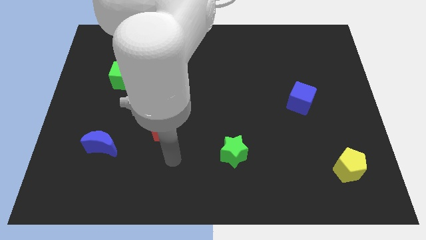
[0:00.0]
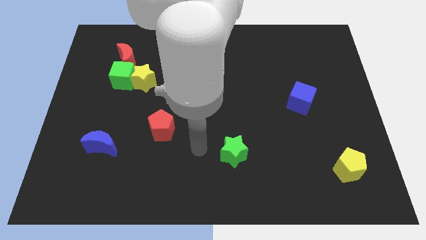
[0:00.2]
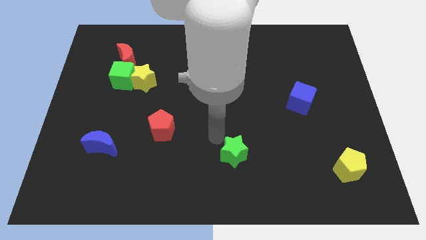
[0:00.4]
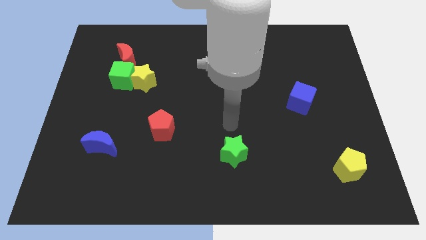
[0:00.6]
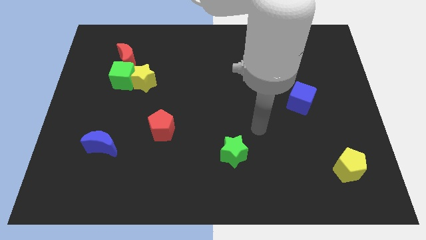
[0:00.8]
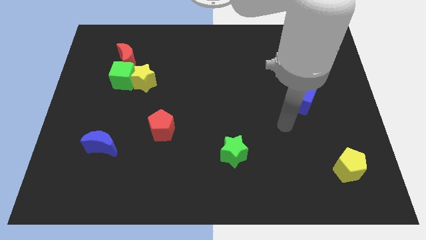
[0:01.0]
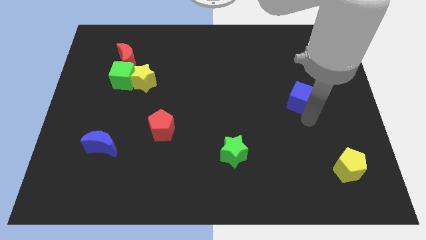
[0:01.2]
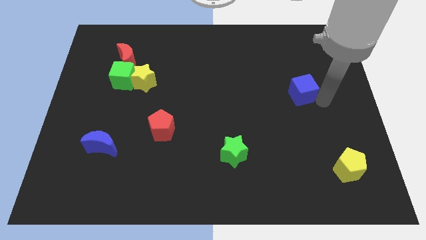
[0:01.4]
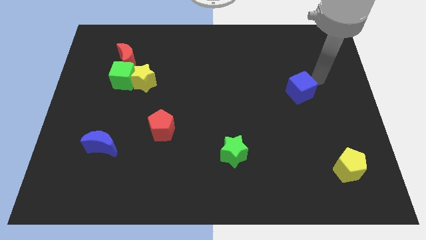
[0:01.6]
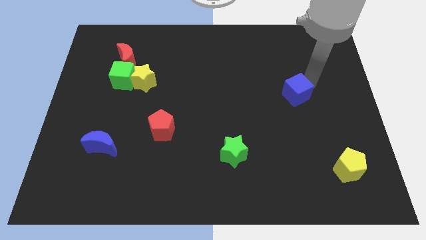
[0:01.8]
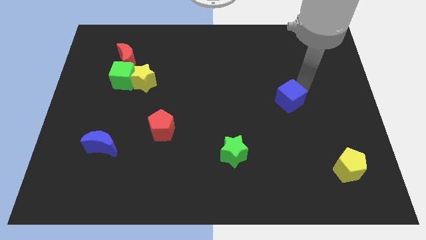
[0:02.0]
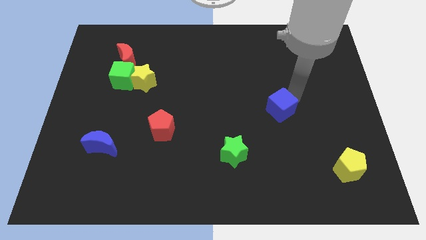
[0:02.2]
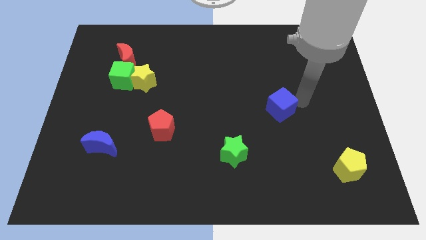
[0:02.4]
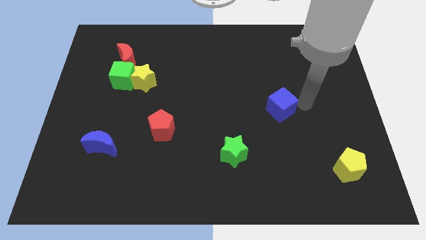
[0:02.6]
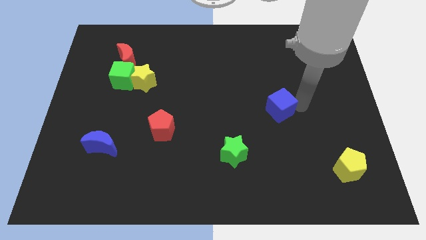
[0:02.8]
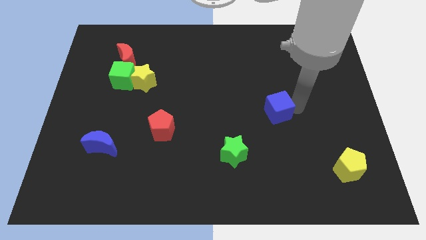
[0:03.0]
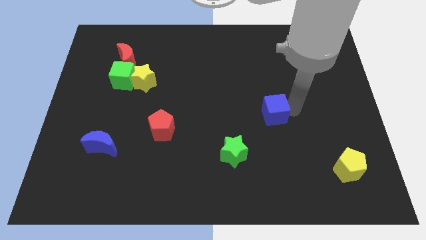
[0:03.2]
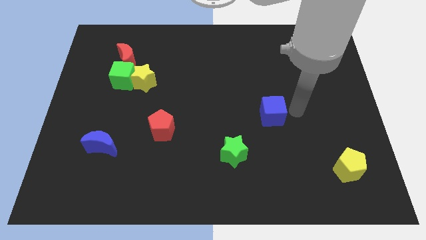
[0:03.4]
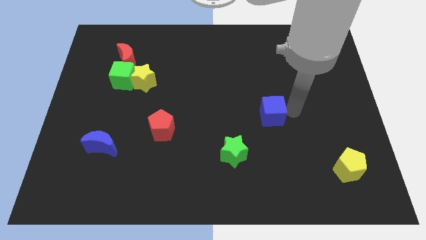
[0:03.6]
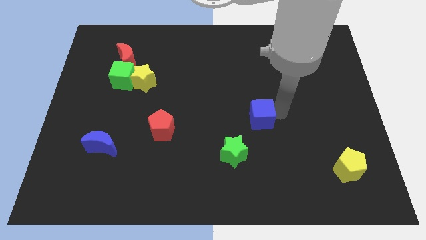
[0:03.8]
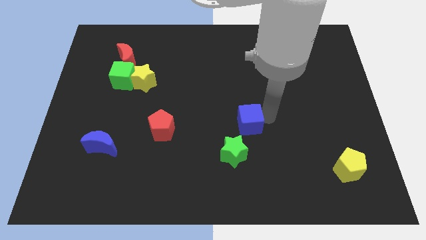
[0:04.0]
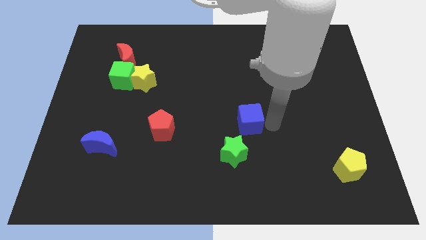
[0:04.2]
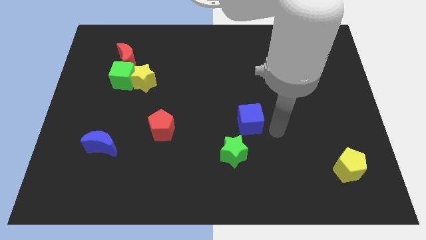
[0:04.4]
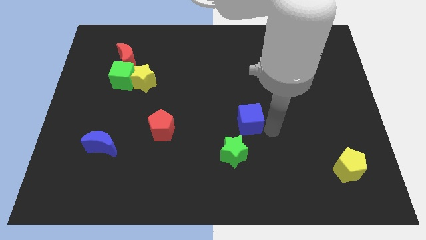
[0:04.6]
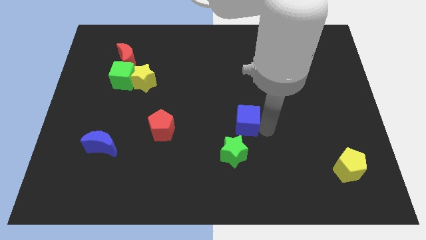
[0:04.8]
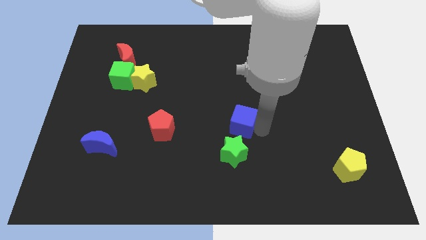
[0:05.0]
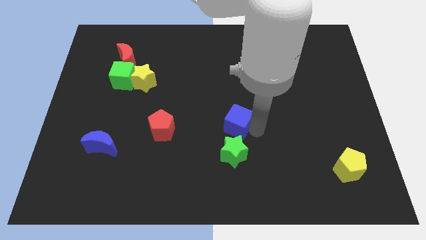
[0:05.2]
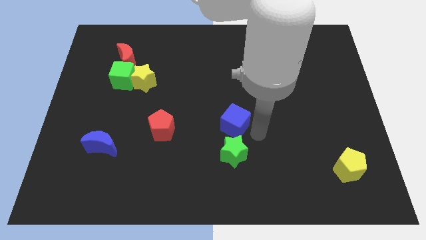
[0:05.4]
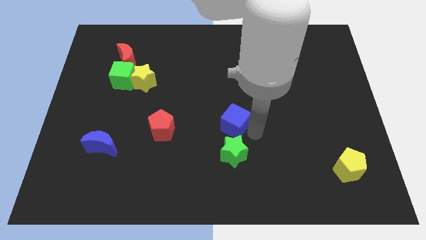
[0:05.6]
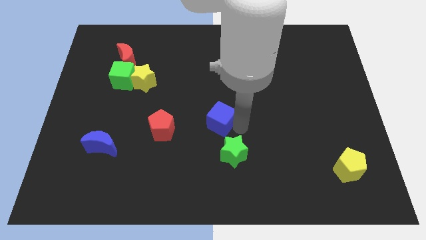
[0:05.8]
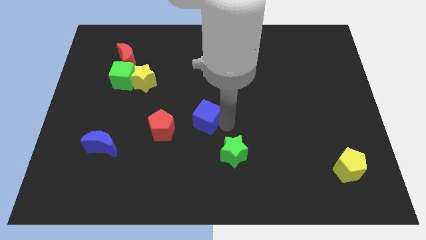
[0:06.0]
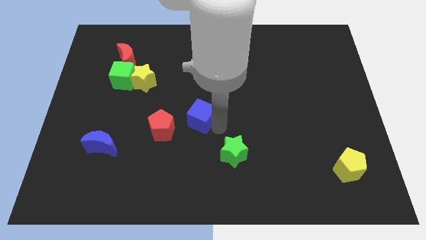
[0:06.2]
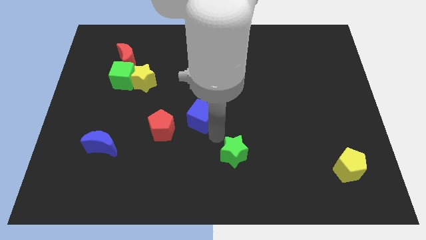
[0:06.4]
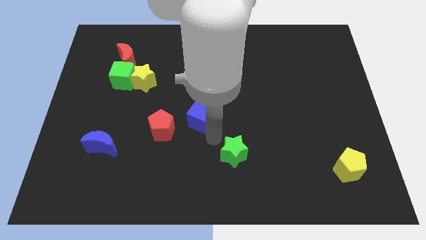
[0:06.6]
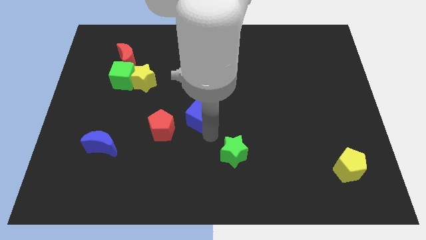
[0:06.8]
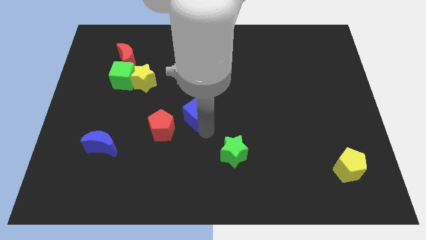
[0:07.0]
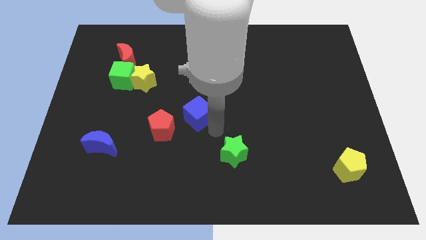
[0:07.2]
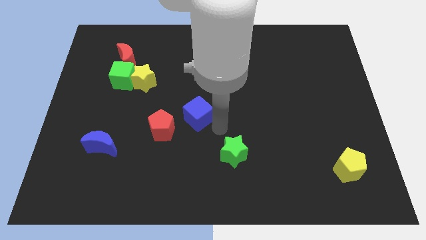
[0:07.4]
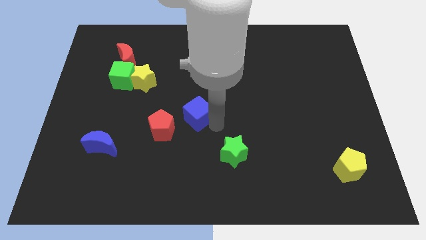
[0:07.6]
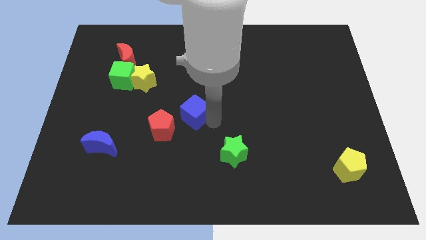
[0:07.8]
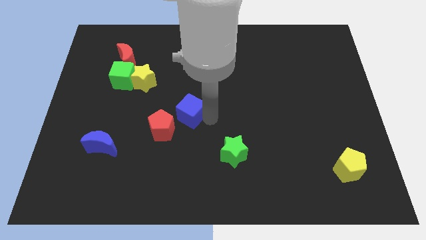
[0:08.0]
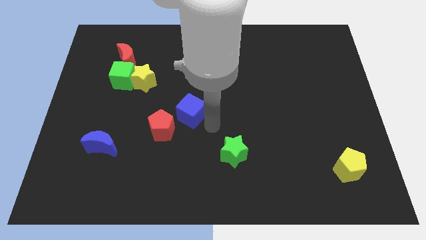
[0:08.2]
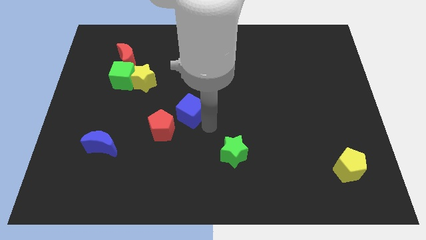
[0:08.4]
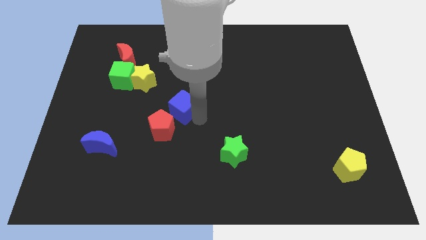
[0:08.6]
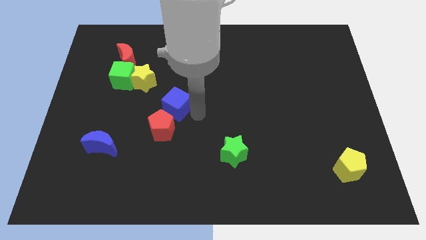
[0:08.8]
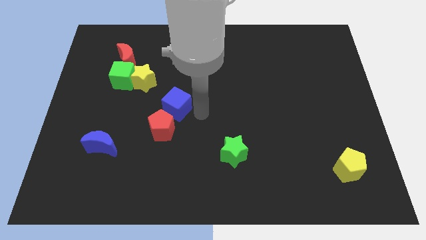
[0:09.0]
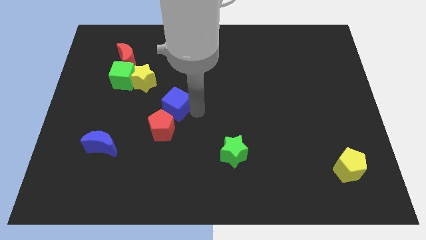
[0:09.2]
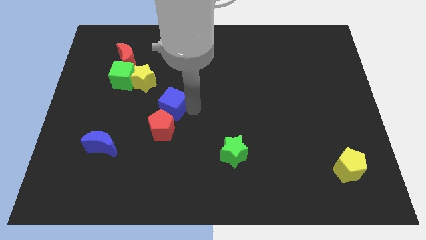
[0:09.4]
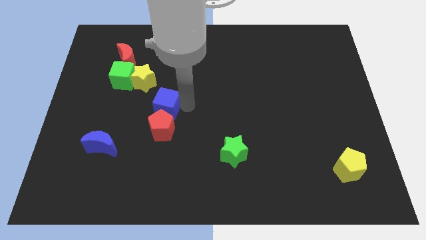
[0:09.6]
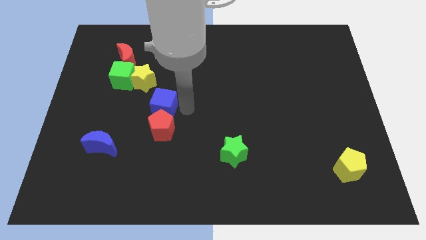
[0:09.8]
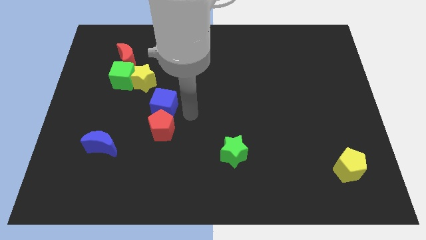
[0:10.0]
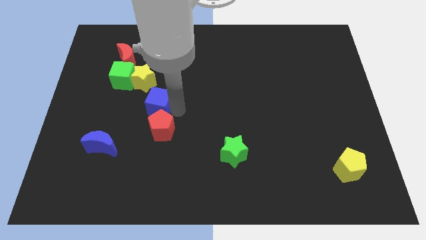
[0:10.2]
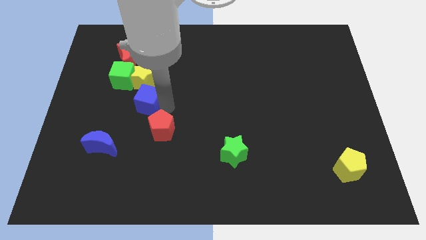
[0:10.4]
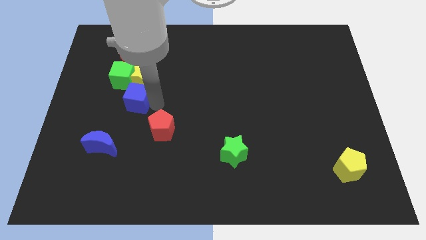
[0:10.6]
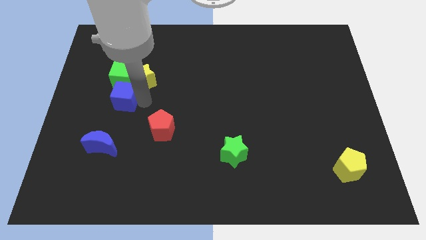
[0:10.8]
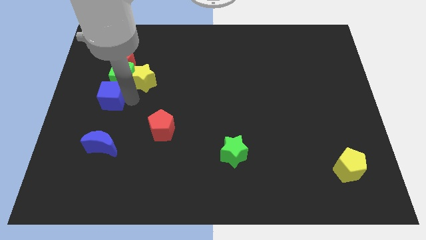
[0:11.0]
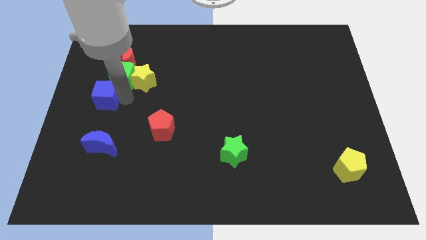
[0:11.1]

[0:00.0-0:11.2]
push the blue cube to the left side

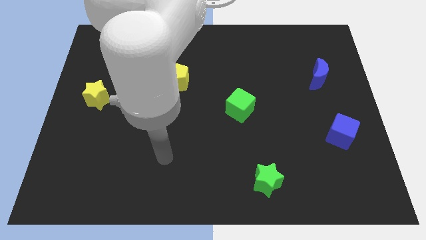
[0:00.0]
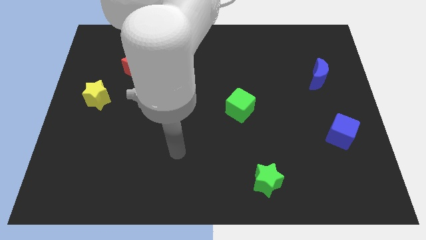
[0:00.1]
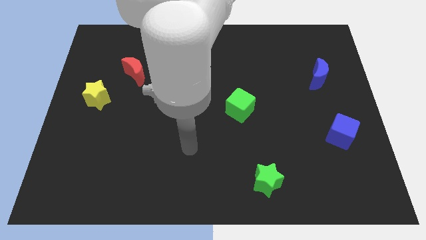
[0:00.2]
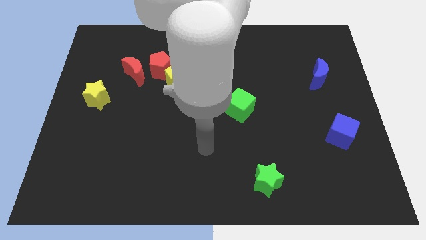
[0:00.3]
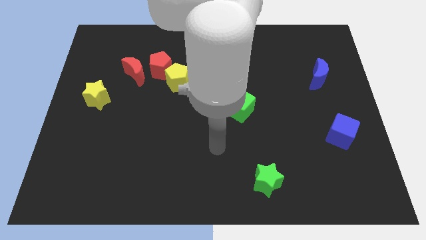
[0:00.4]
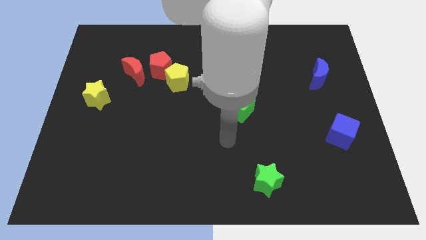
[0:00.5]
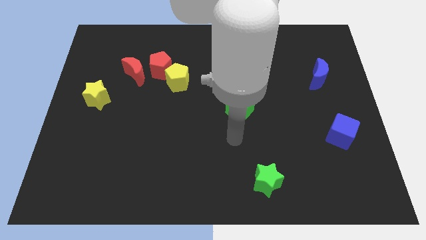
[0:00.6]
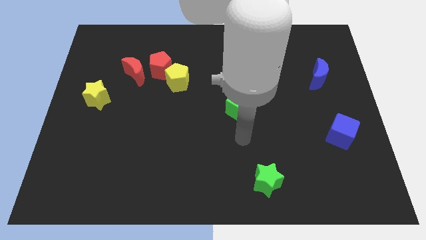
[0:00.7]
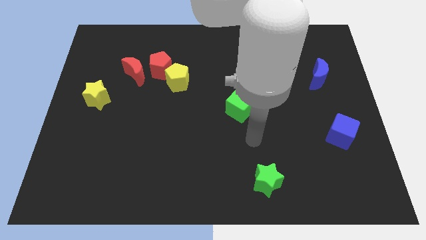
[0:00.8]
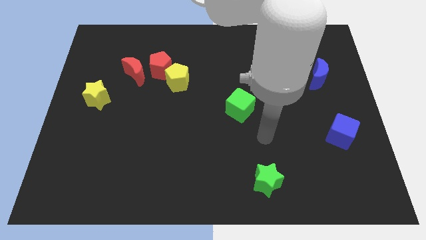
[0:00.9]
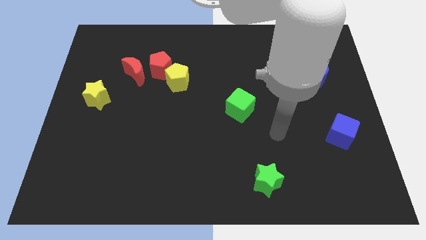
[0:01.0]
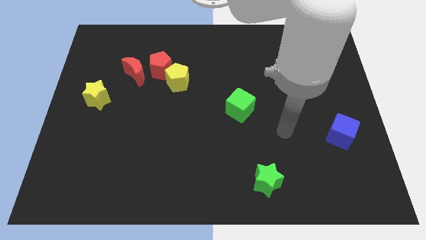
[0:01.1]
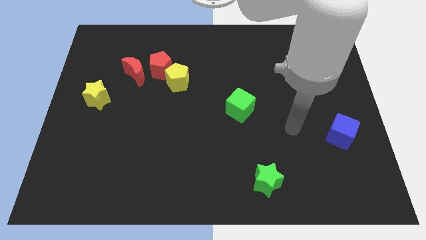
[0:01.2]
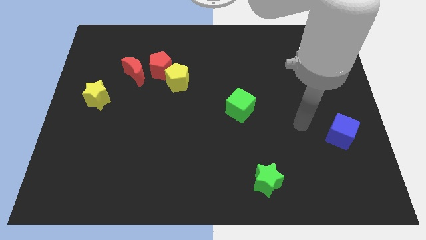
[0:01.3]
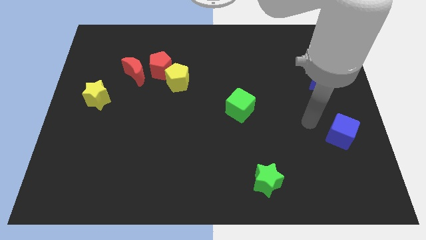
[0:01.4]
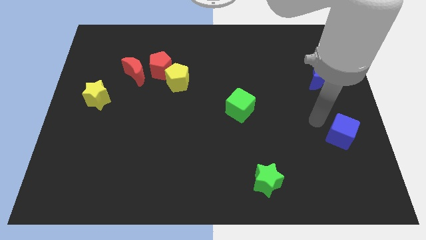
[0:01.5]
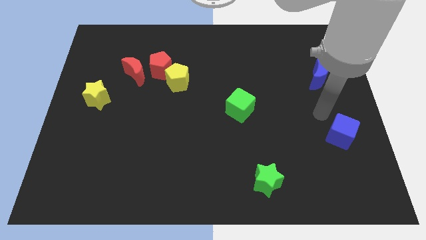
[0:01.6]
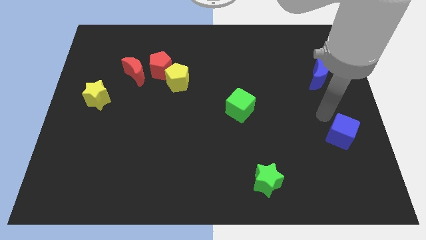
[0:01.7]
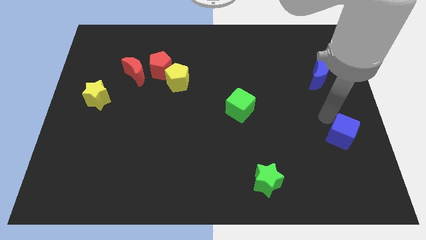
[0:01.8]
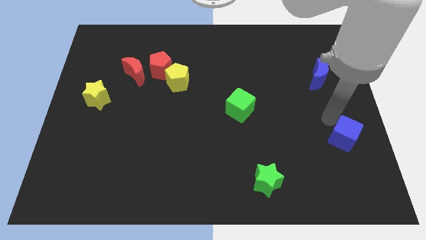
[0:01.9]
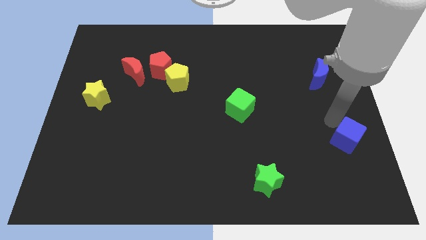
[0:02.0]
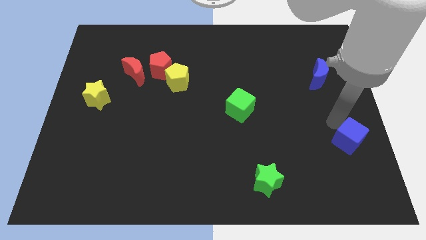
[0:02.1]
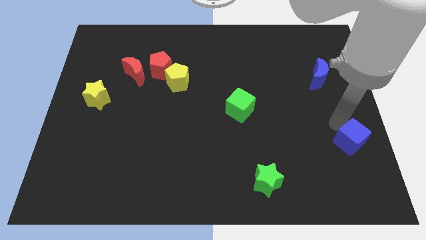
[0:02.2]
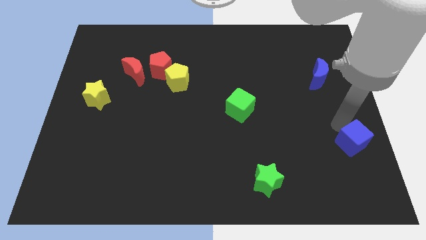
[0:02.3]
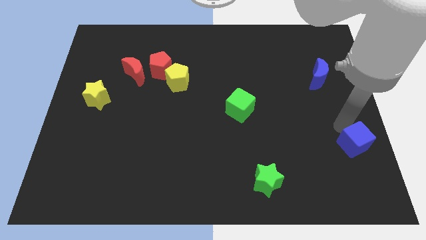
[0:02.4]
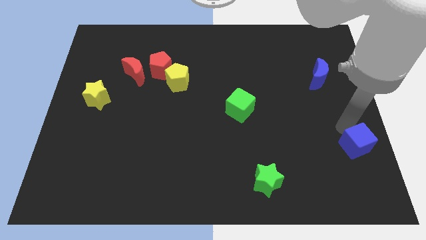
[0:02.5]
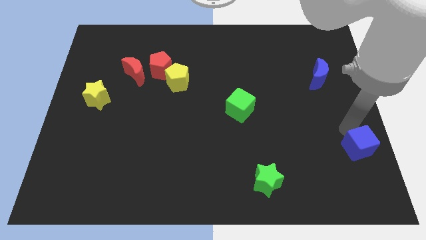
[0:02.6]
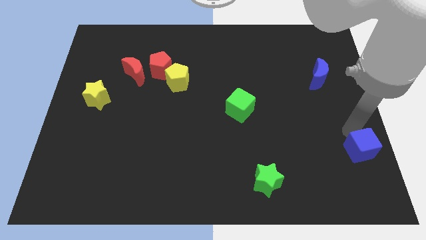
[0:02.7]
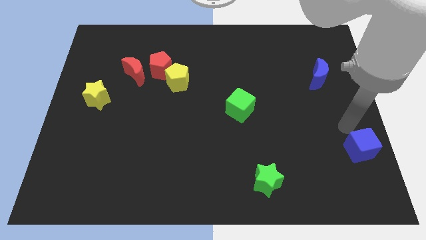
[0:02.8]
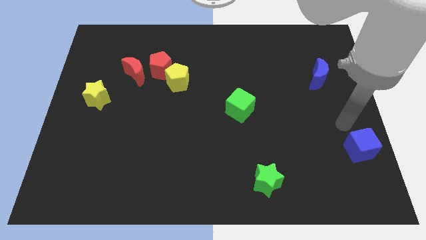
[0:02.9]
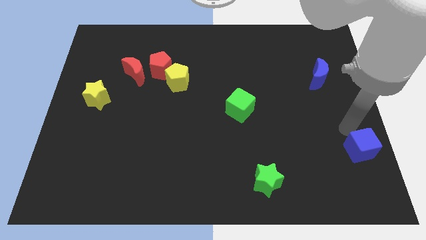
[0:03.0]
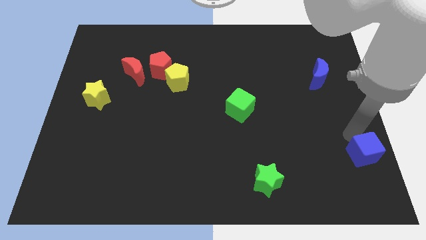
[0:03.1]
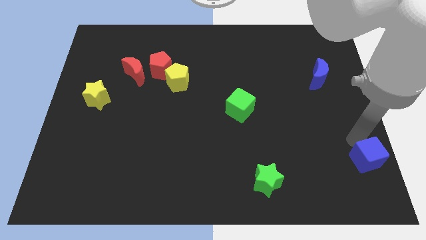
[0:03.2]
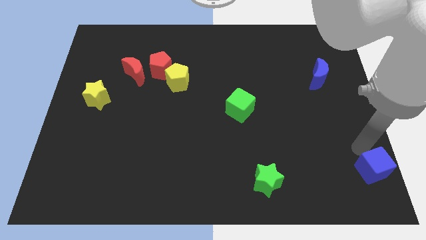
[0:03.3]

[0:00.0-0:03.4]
put the blue cube to the bottom right corner
